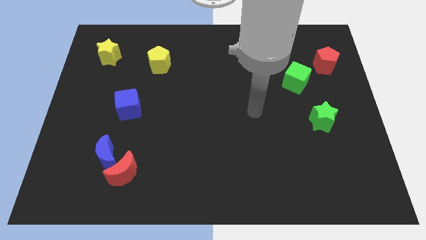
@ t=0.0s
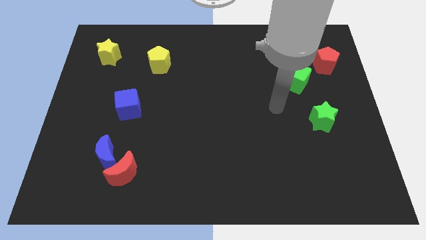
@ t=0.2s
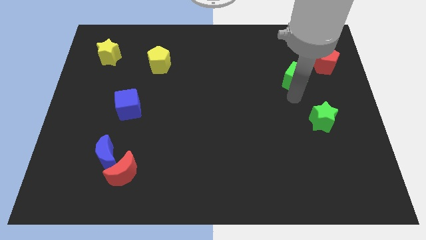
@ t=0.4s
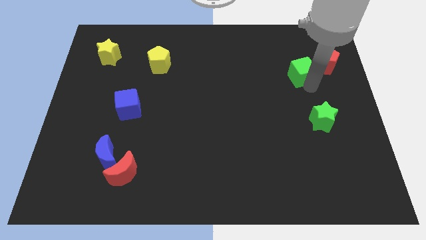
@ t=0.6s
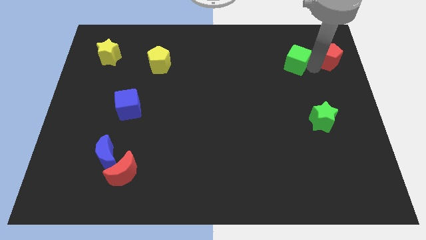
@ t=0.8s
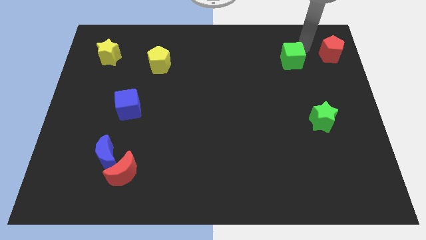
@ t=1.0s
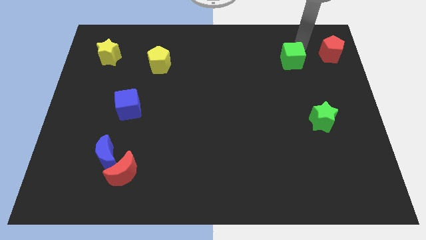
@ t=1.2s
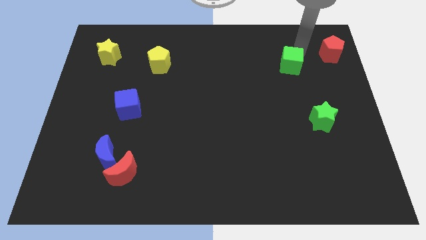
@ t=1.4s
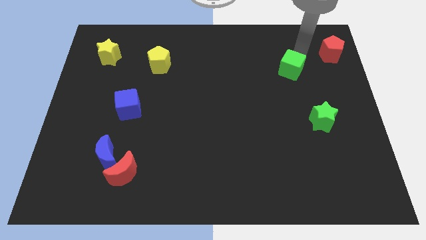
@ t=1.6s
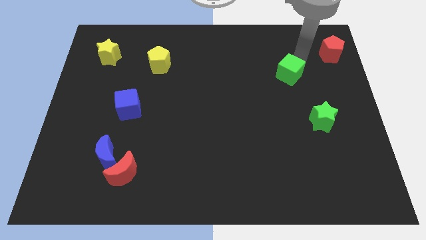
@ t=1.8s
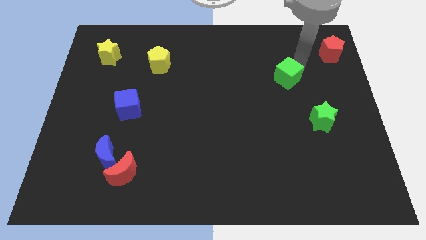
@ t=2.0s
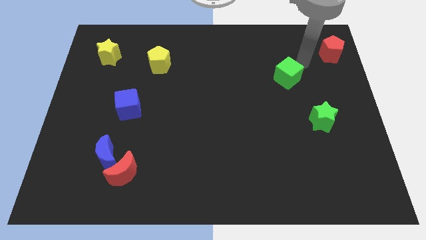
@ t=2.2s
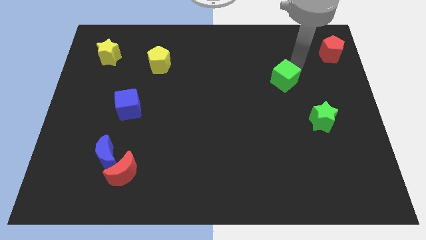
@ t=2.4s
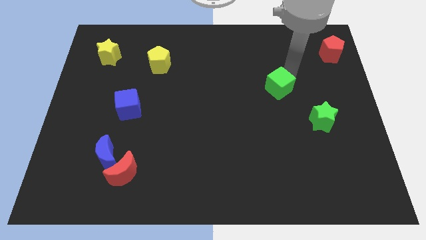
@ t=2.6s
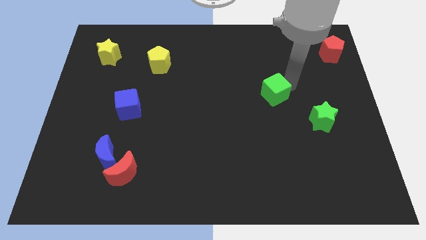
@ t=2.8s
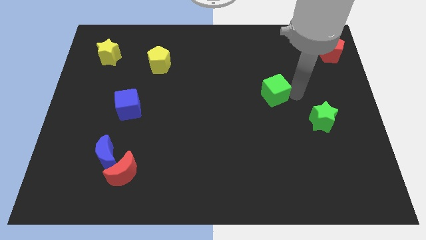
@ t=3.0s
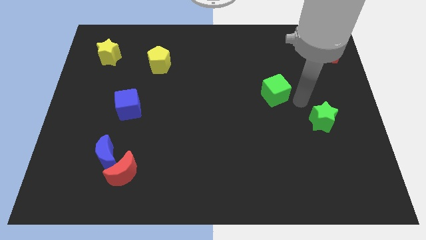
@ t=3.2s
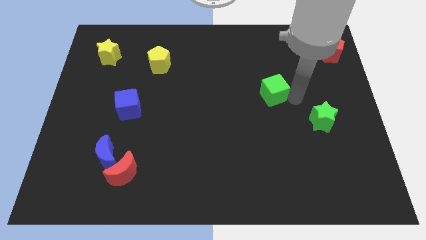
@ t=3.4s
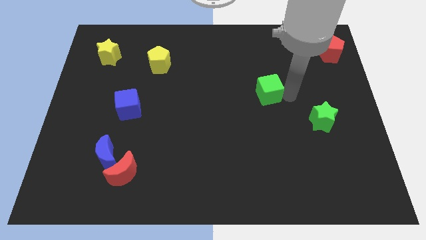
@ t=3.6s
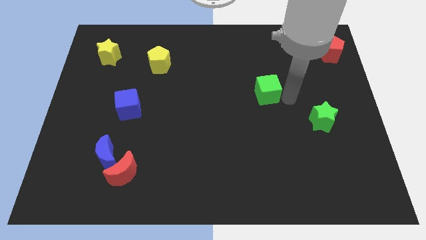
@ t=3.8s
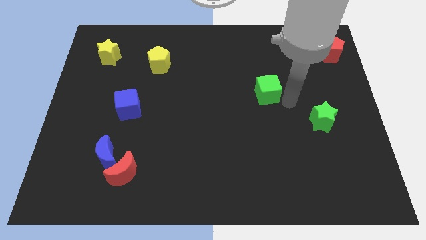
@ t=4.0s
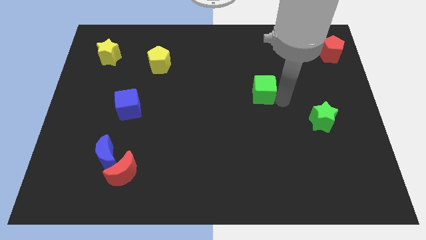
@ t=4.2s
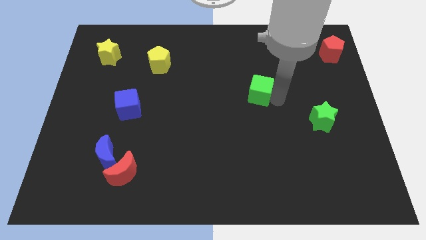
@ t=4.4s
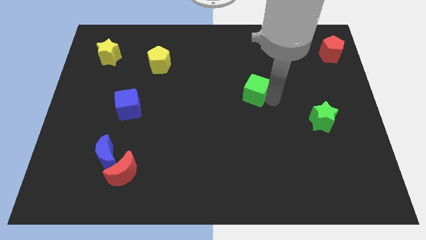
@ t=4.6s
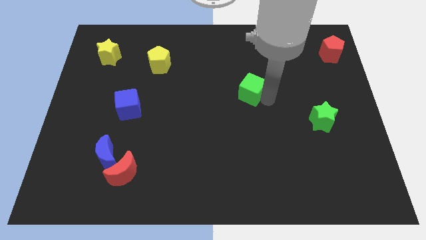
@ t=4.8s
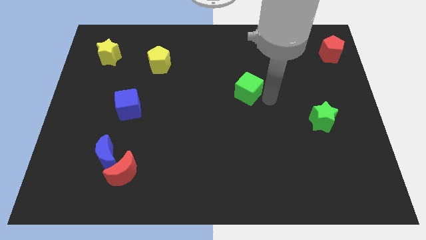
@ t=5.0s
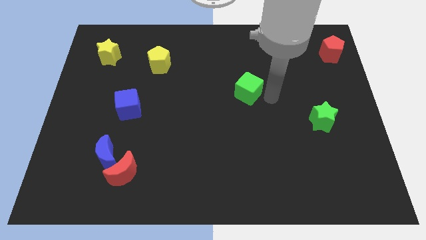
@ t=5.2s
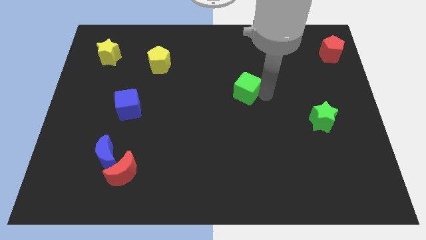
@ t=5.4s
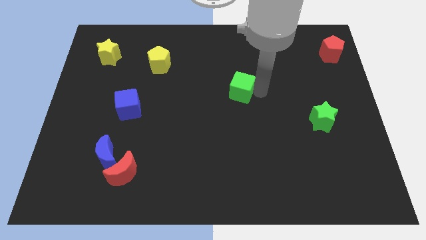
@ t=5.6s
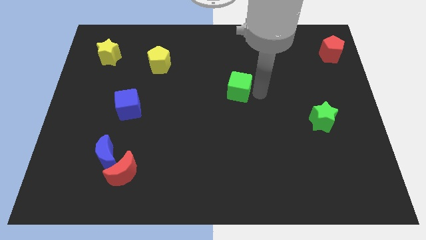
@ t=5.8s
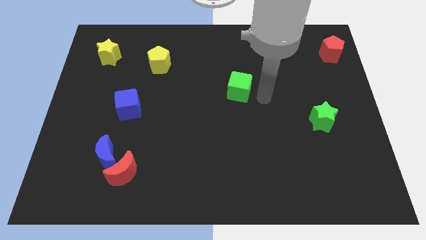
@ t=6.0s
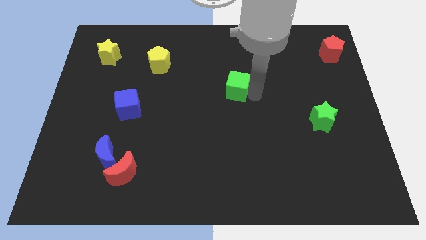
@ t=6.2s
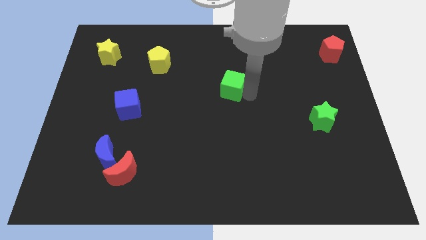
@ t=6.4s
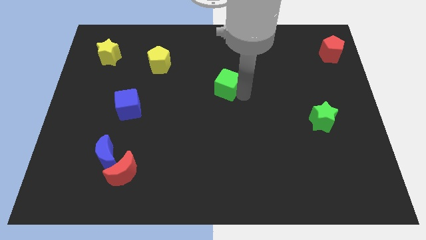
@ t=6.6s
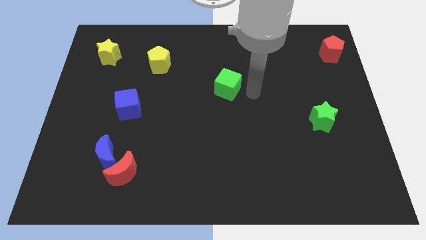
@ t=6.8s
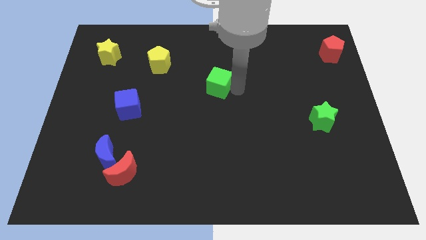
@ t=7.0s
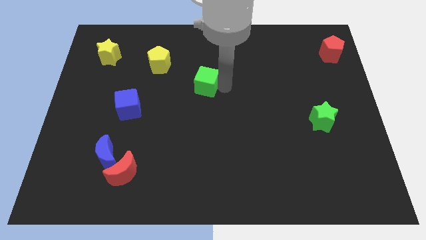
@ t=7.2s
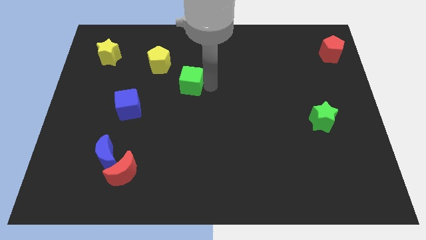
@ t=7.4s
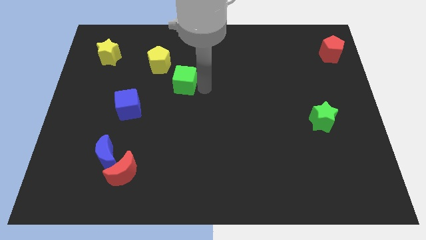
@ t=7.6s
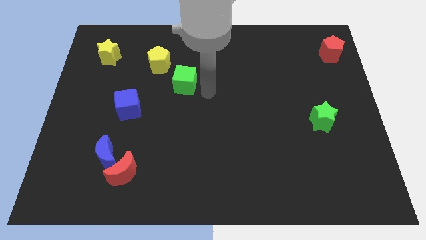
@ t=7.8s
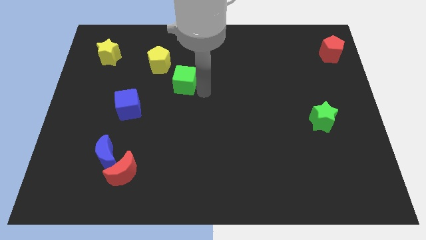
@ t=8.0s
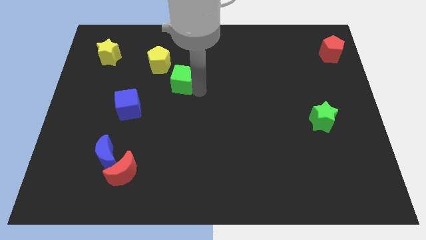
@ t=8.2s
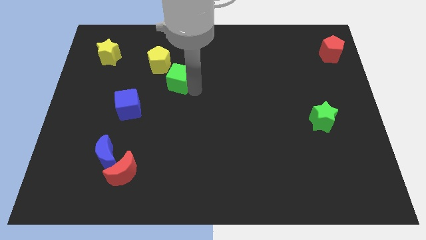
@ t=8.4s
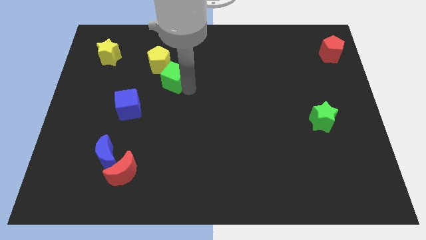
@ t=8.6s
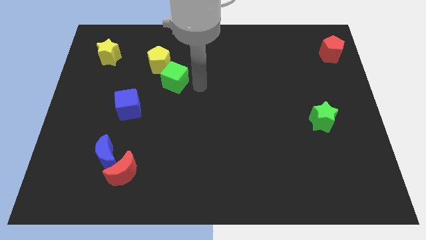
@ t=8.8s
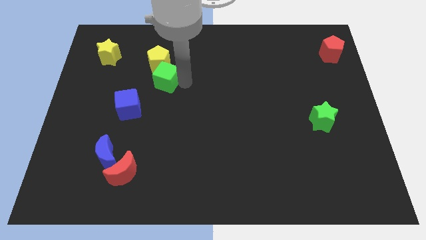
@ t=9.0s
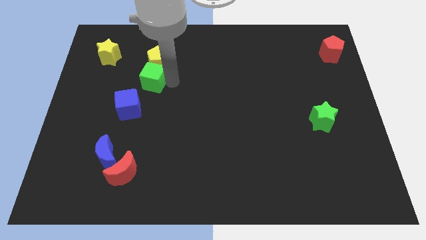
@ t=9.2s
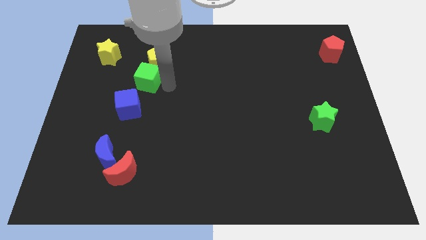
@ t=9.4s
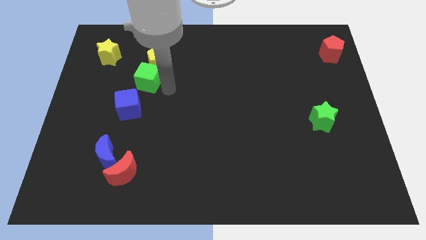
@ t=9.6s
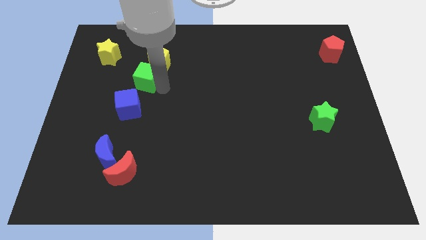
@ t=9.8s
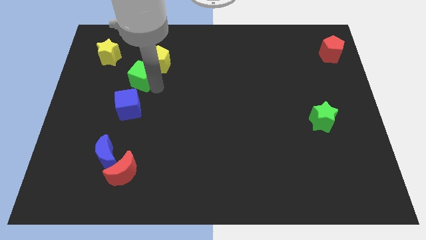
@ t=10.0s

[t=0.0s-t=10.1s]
slide the green cube to the bottom right side of the yellow star

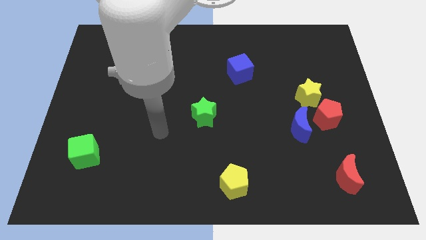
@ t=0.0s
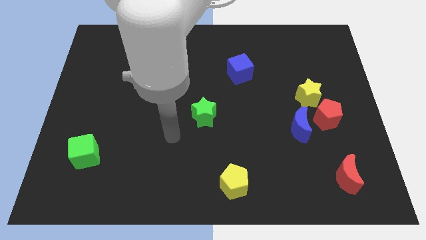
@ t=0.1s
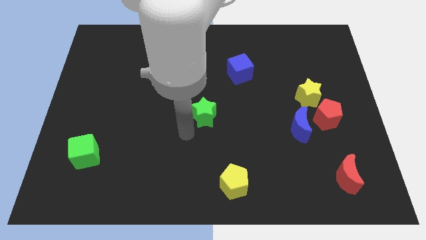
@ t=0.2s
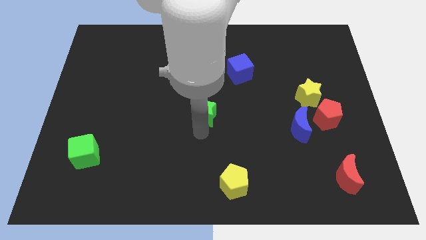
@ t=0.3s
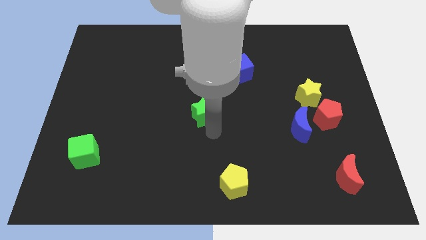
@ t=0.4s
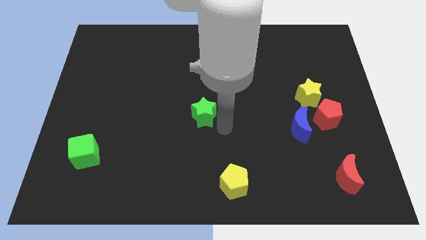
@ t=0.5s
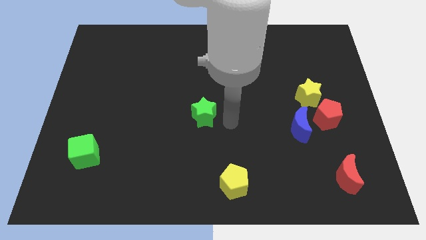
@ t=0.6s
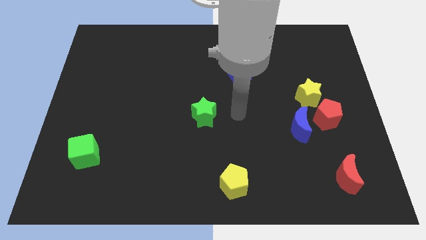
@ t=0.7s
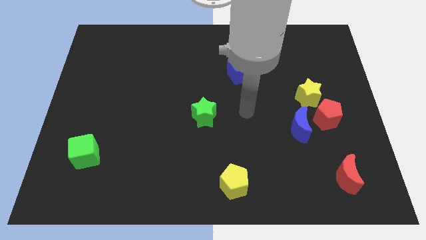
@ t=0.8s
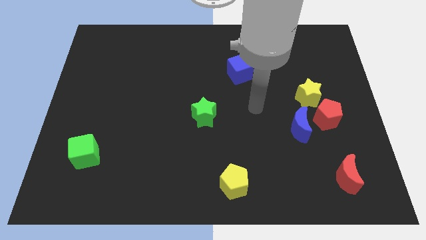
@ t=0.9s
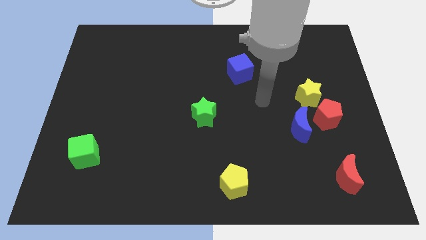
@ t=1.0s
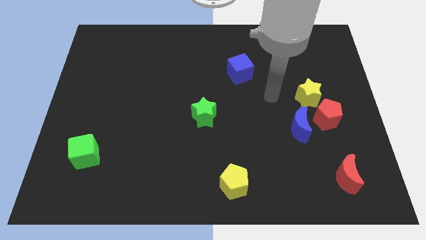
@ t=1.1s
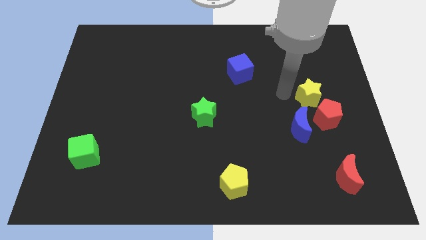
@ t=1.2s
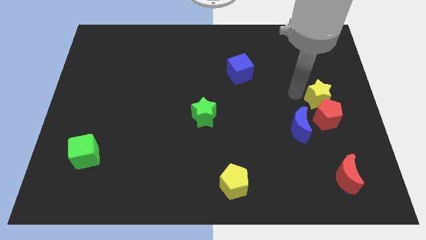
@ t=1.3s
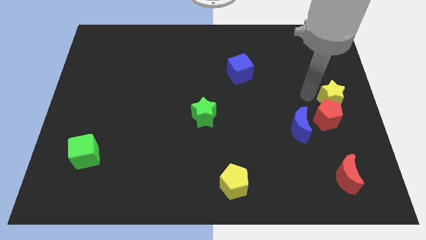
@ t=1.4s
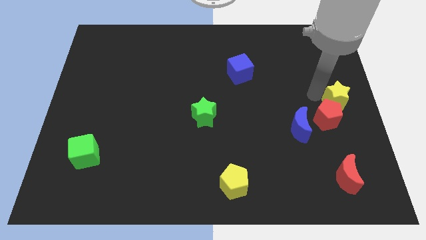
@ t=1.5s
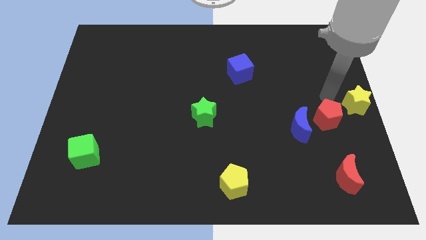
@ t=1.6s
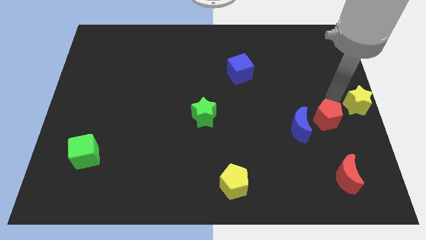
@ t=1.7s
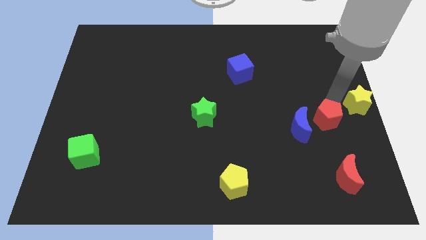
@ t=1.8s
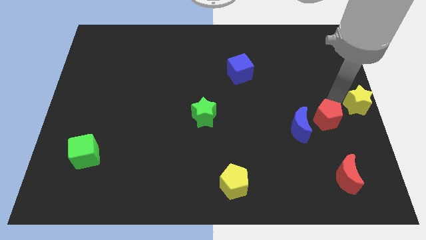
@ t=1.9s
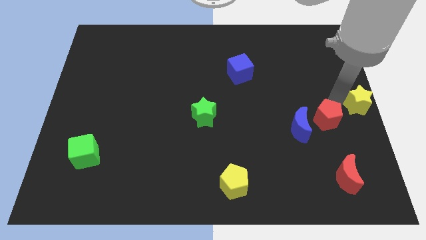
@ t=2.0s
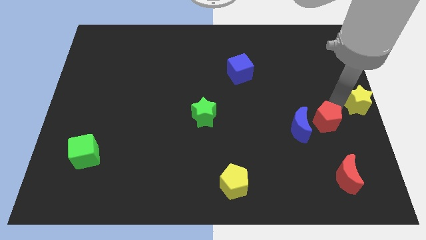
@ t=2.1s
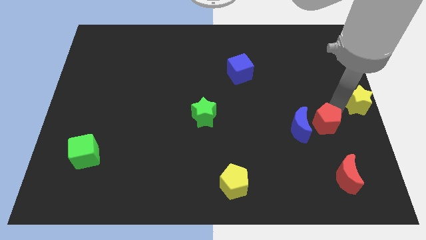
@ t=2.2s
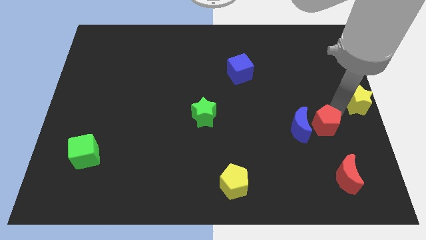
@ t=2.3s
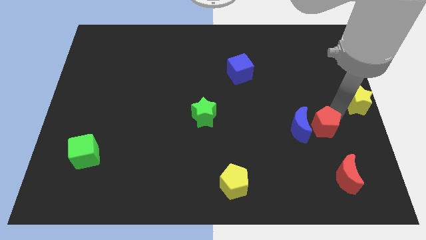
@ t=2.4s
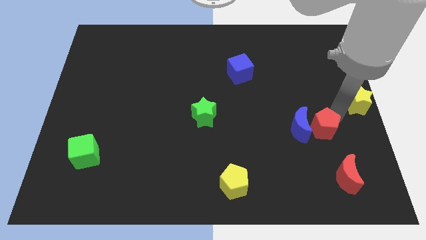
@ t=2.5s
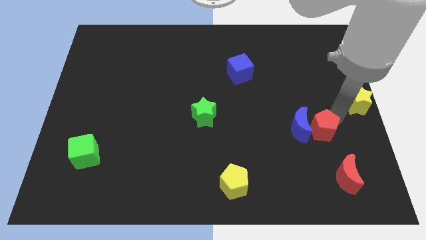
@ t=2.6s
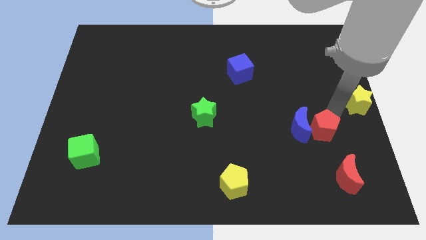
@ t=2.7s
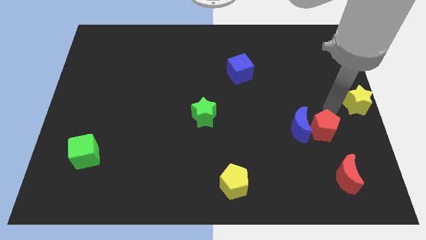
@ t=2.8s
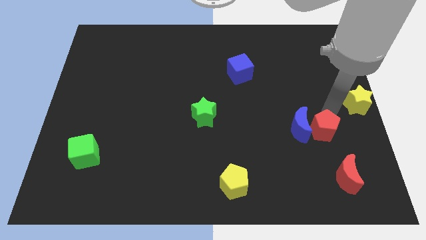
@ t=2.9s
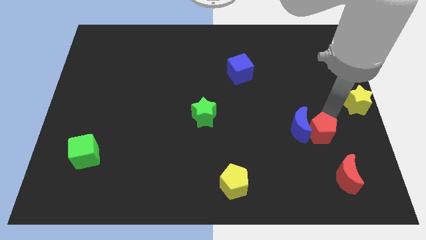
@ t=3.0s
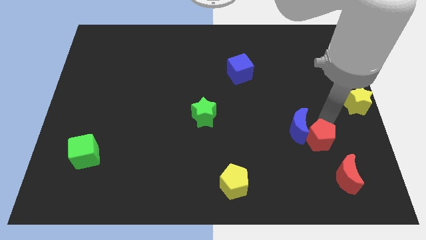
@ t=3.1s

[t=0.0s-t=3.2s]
slide the red pentagon diagonally up and to the left of the red moon
